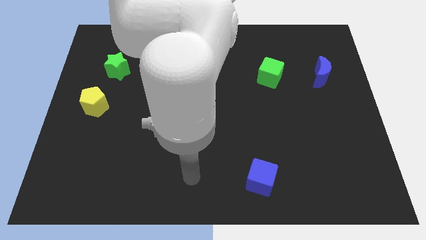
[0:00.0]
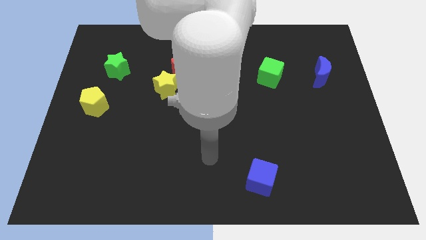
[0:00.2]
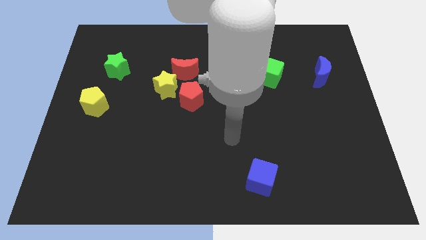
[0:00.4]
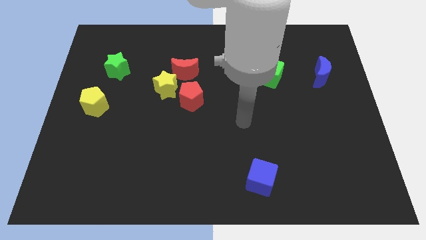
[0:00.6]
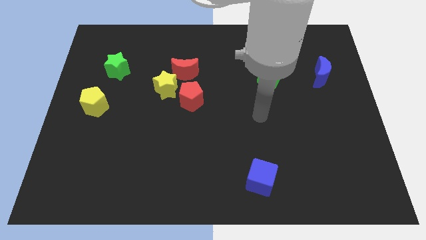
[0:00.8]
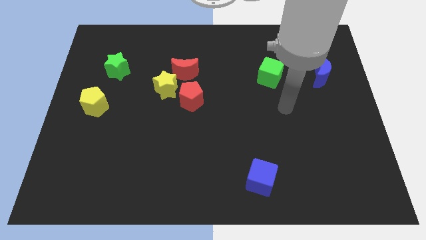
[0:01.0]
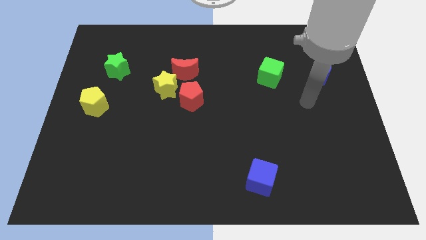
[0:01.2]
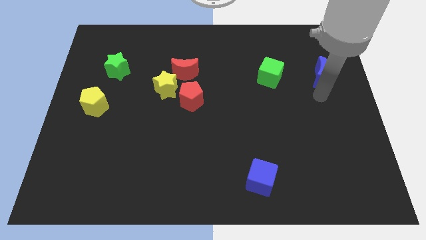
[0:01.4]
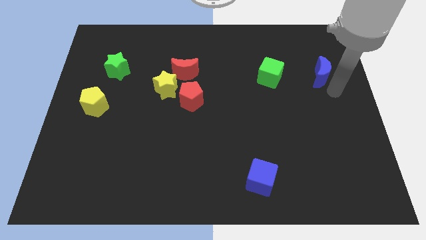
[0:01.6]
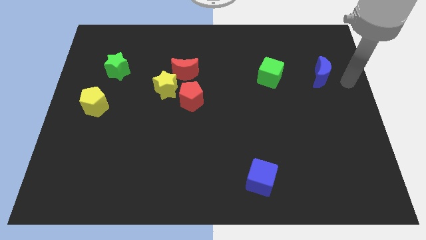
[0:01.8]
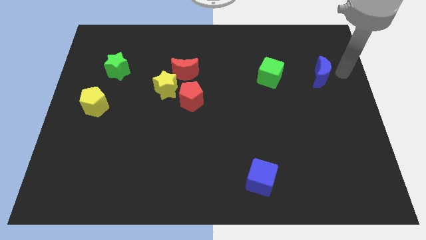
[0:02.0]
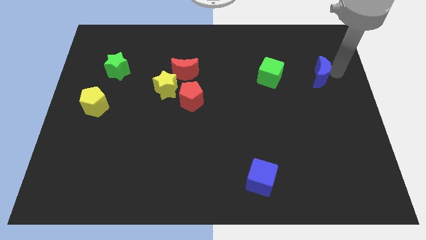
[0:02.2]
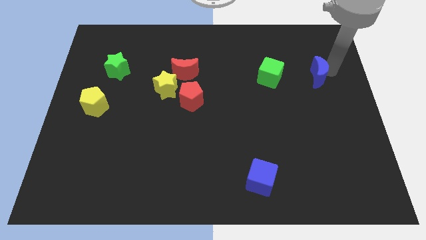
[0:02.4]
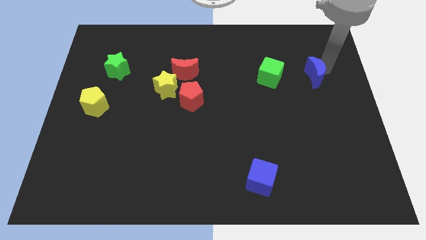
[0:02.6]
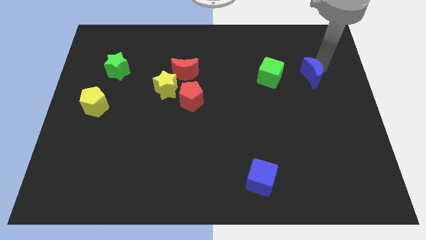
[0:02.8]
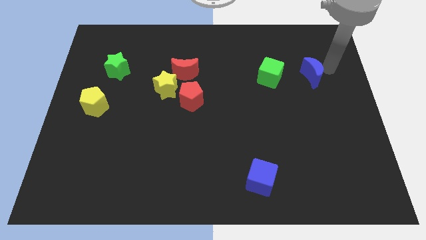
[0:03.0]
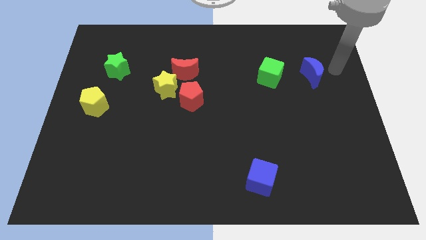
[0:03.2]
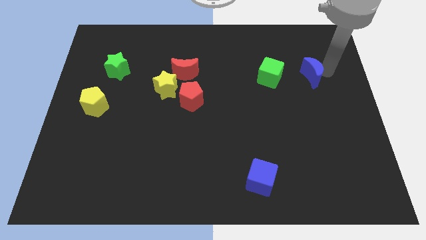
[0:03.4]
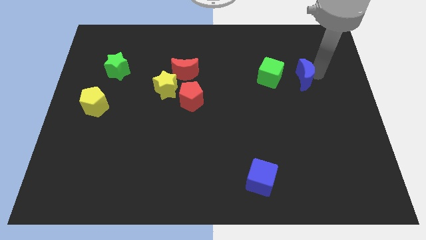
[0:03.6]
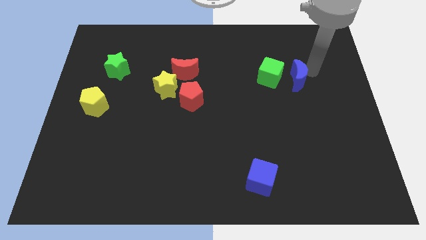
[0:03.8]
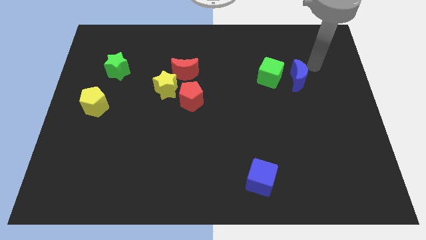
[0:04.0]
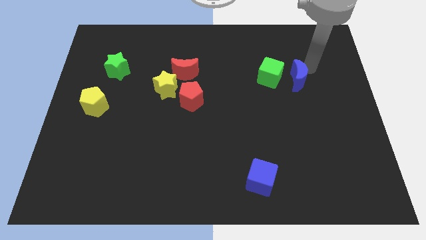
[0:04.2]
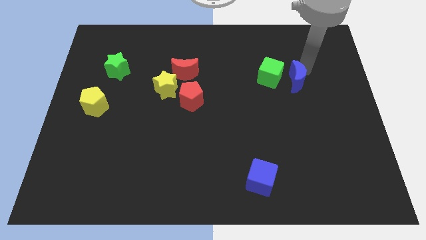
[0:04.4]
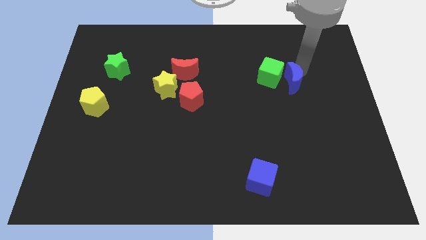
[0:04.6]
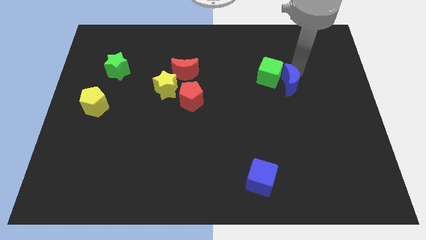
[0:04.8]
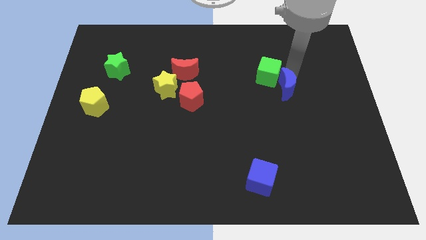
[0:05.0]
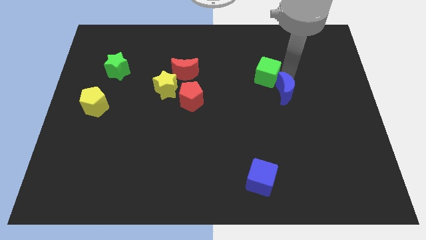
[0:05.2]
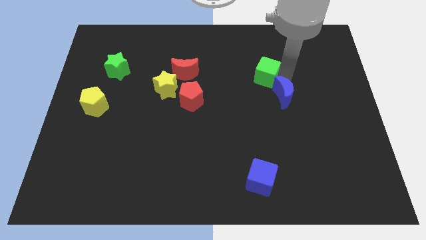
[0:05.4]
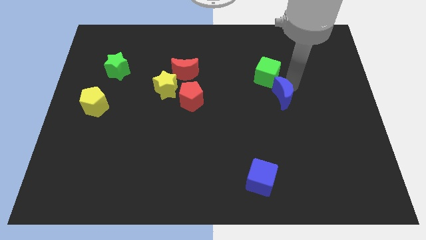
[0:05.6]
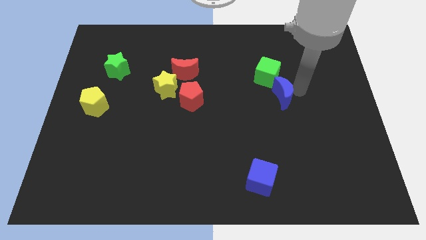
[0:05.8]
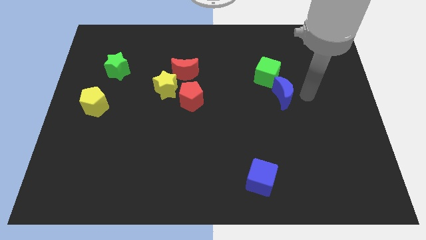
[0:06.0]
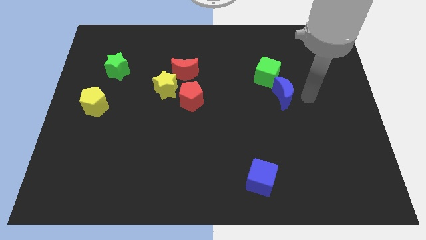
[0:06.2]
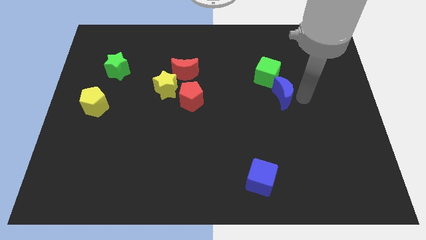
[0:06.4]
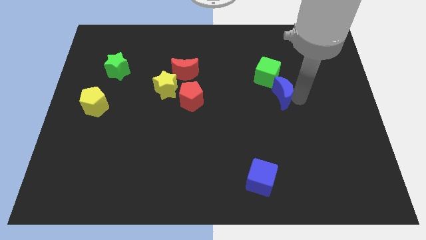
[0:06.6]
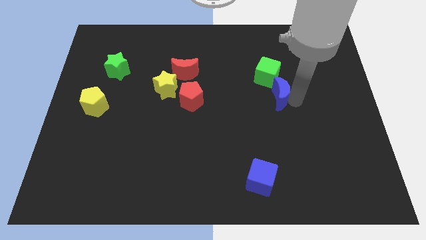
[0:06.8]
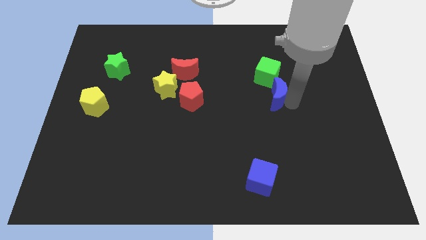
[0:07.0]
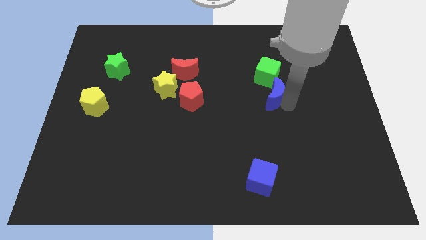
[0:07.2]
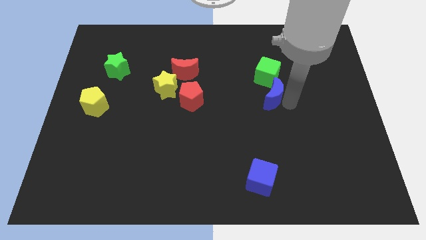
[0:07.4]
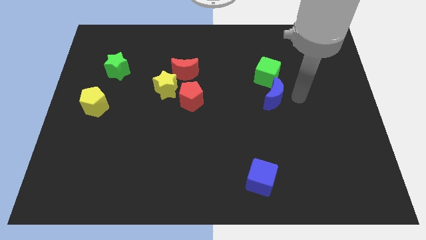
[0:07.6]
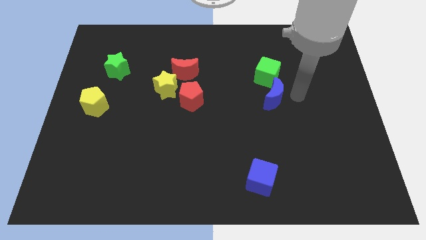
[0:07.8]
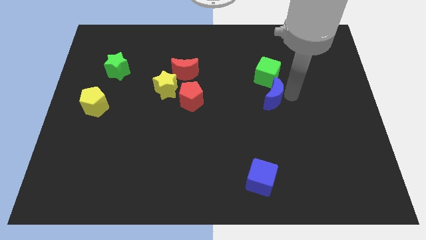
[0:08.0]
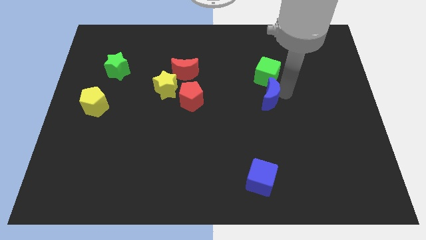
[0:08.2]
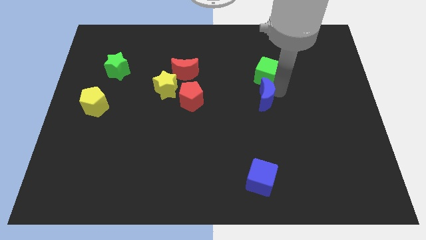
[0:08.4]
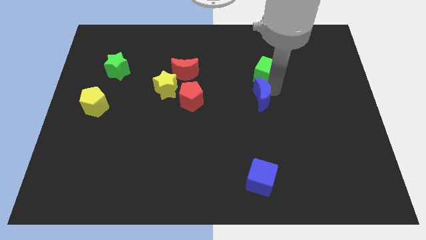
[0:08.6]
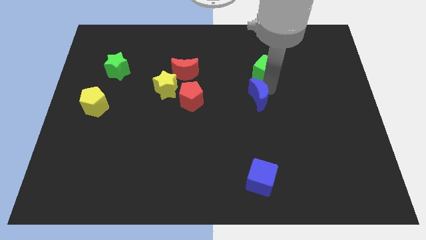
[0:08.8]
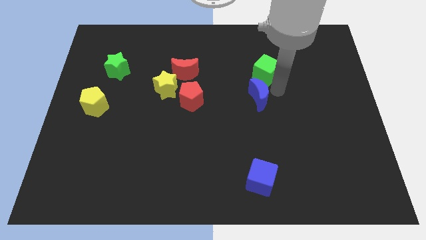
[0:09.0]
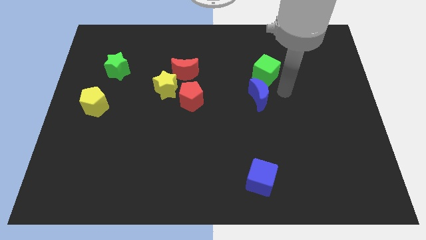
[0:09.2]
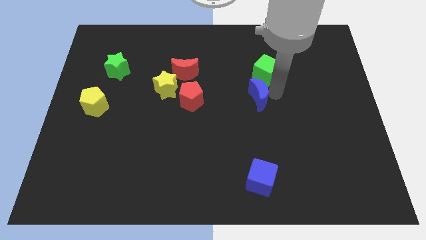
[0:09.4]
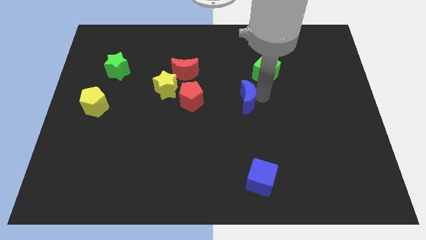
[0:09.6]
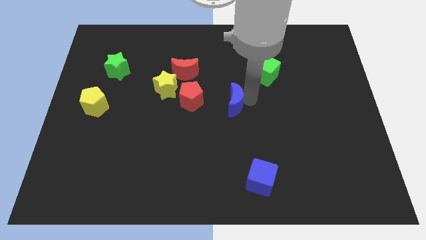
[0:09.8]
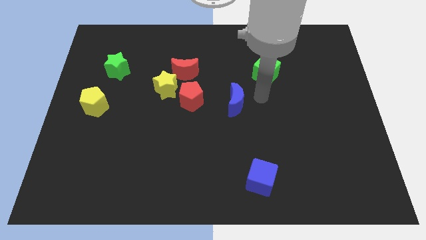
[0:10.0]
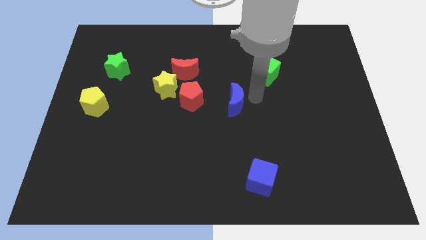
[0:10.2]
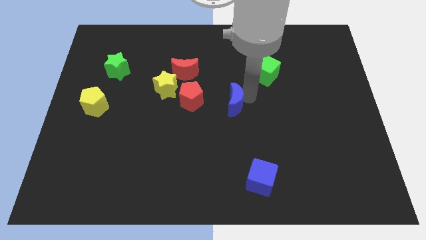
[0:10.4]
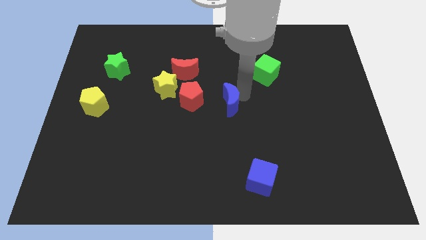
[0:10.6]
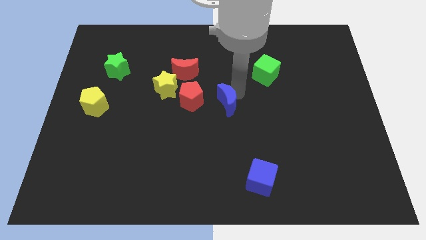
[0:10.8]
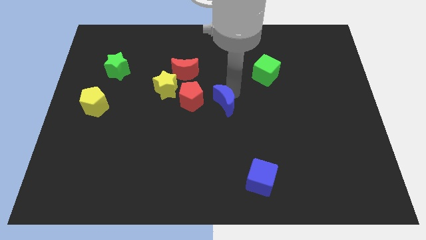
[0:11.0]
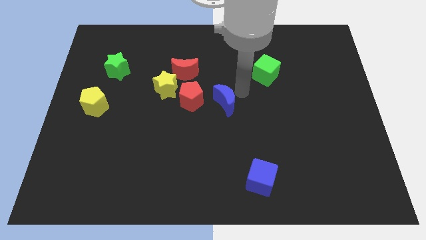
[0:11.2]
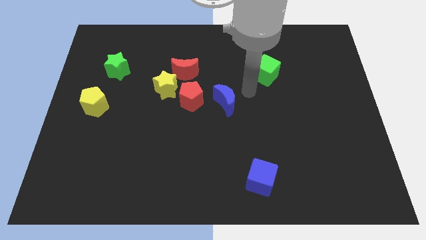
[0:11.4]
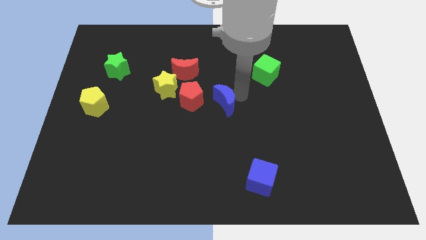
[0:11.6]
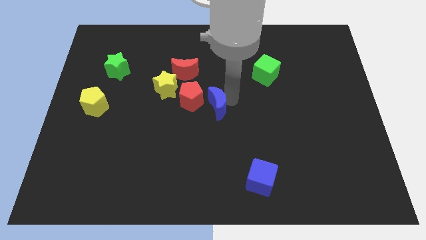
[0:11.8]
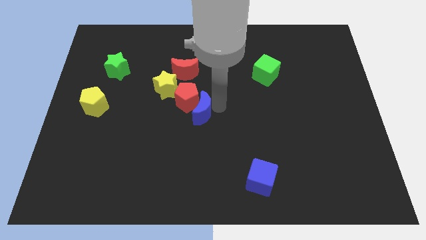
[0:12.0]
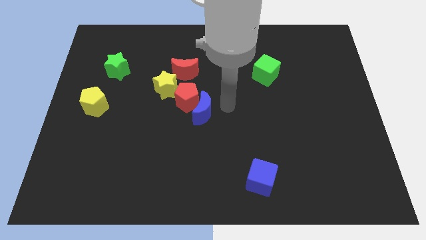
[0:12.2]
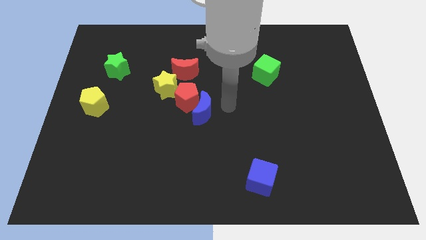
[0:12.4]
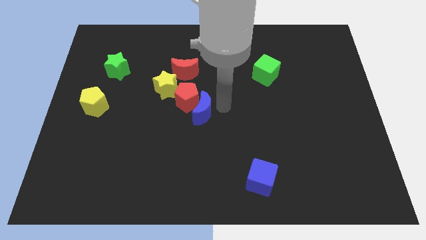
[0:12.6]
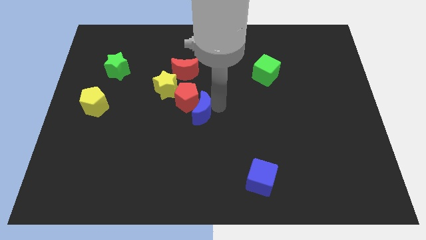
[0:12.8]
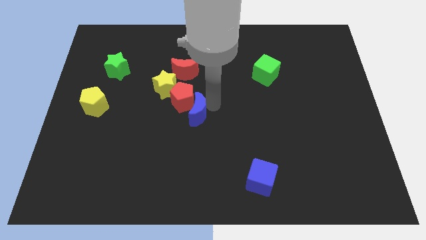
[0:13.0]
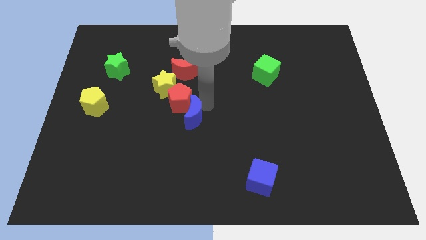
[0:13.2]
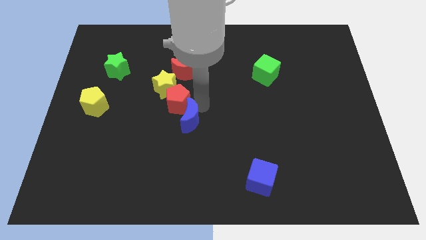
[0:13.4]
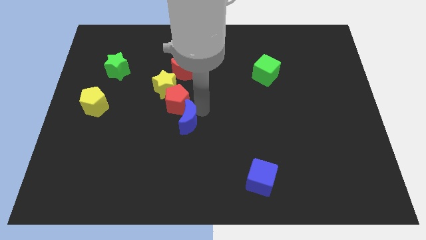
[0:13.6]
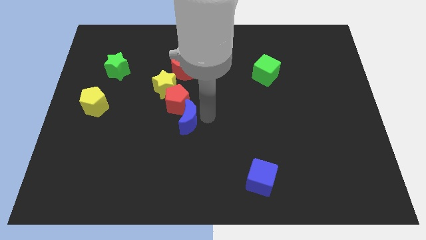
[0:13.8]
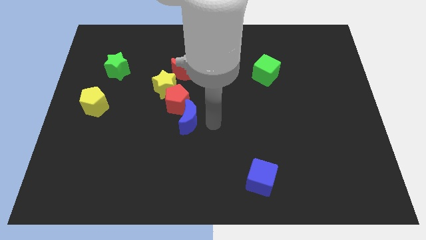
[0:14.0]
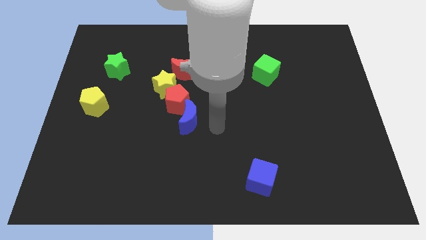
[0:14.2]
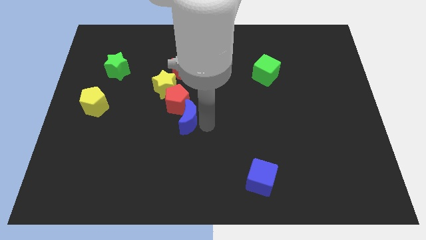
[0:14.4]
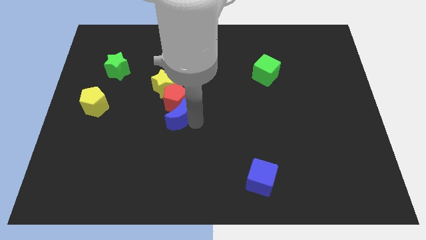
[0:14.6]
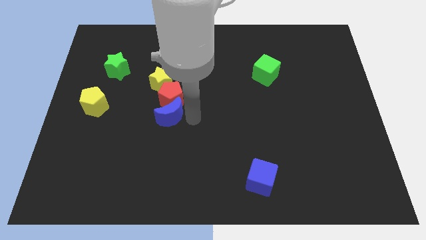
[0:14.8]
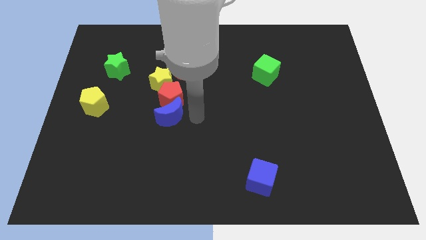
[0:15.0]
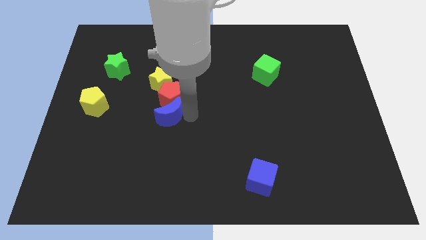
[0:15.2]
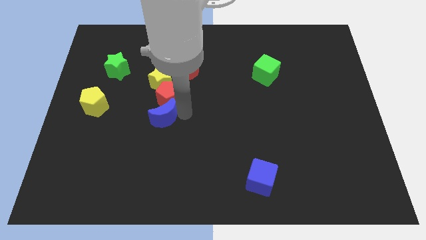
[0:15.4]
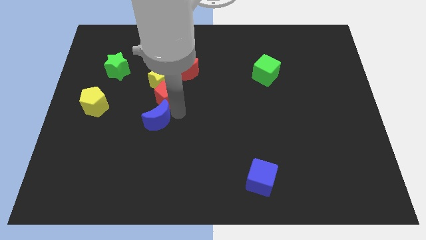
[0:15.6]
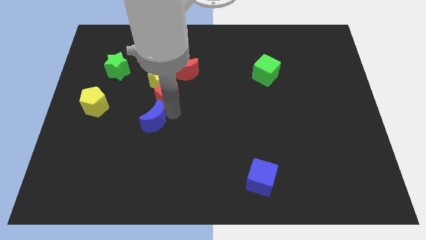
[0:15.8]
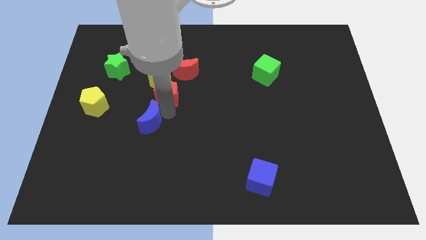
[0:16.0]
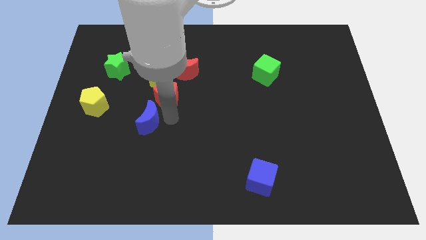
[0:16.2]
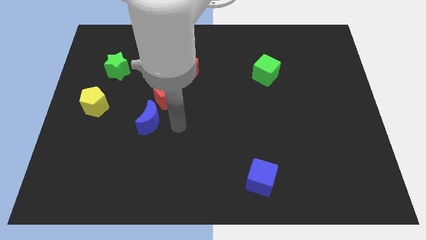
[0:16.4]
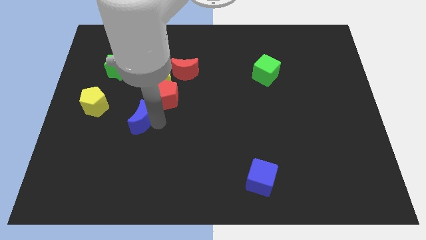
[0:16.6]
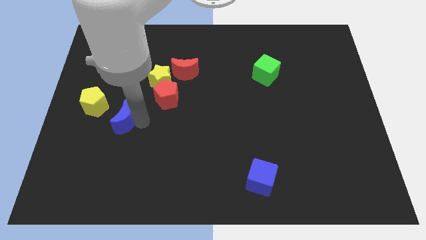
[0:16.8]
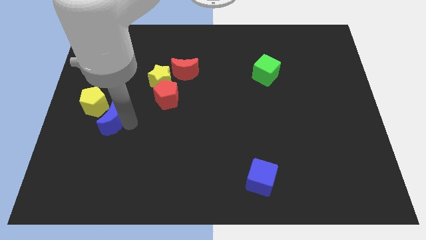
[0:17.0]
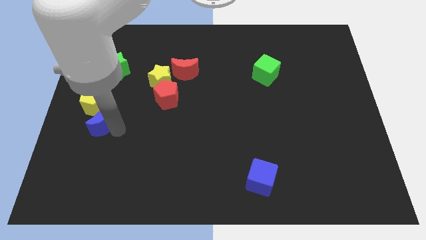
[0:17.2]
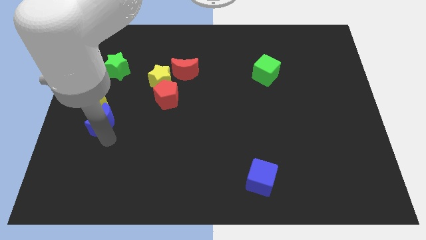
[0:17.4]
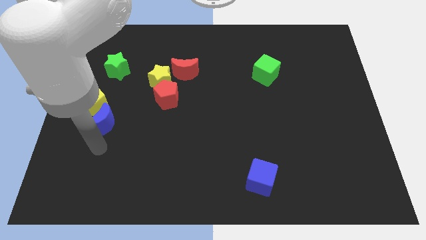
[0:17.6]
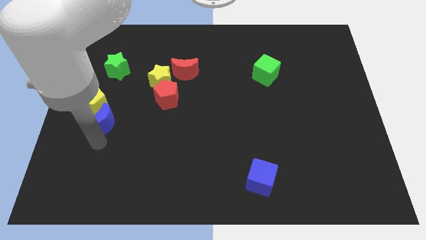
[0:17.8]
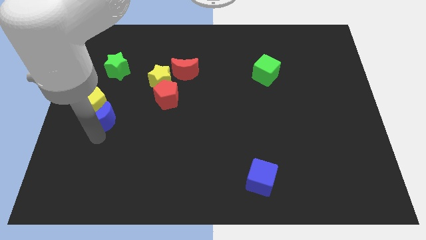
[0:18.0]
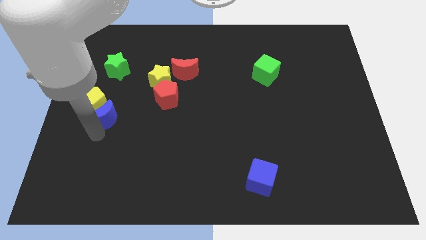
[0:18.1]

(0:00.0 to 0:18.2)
move the blue moon to the bottom of the green star
